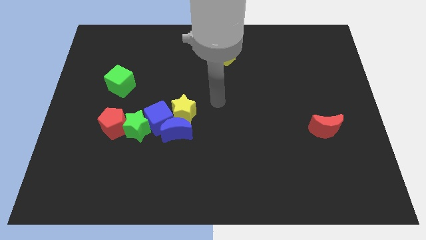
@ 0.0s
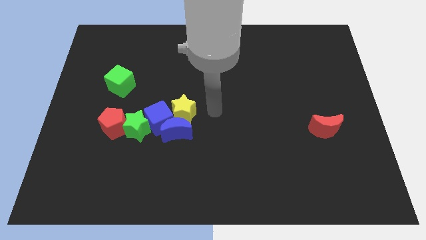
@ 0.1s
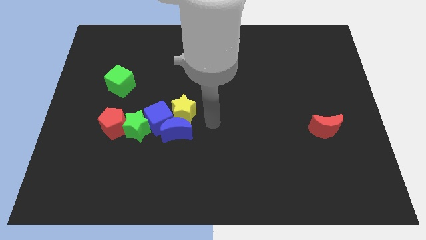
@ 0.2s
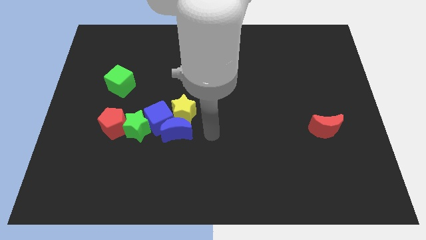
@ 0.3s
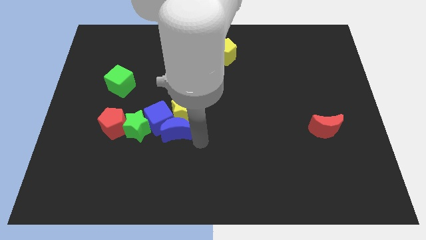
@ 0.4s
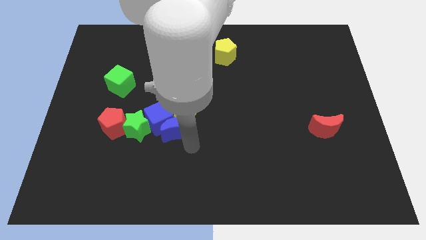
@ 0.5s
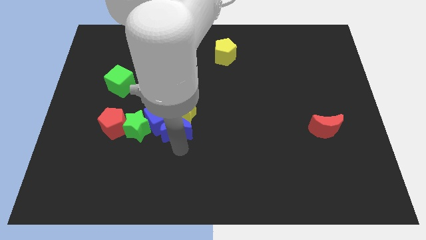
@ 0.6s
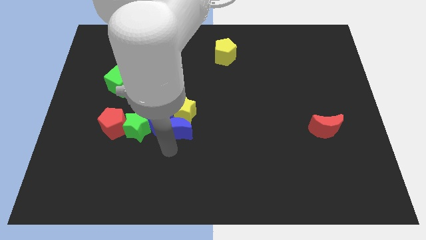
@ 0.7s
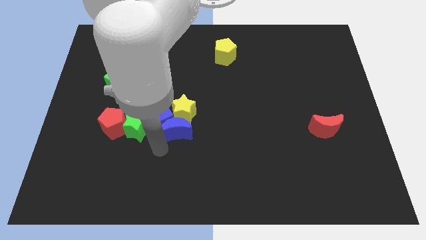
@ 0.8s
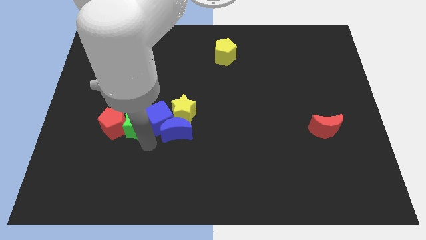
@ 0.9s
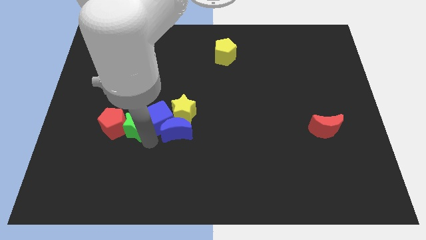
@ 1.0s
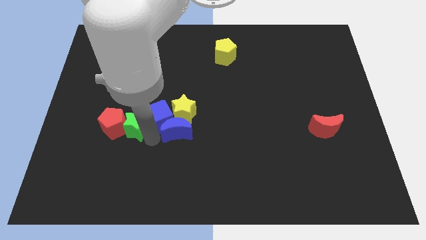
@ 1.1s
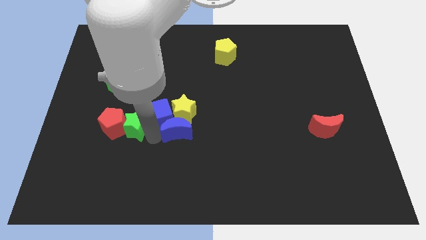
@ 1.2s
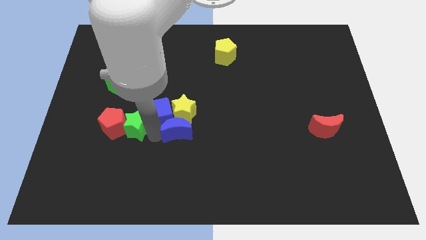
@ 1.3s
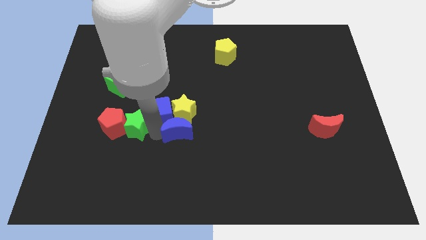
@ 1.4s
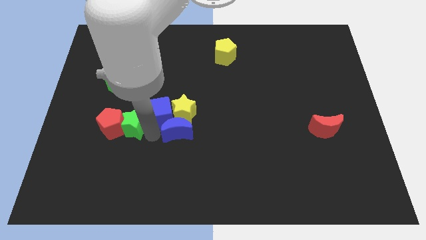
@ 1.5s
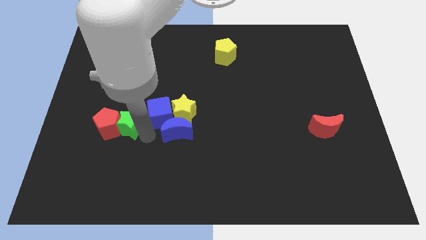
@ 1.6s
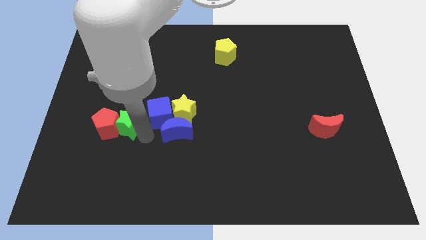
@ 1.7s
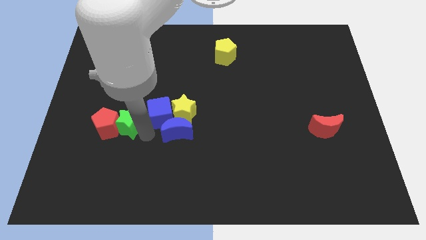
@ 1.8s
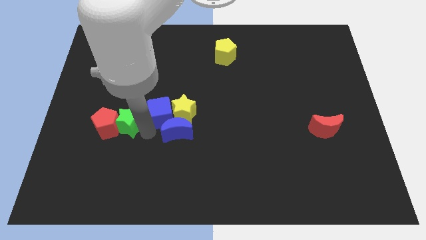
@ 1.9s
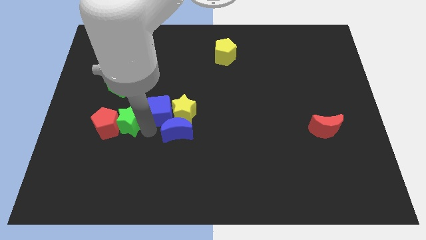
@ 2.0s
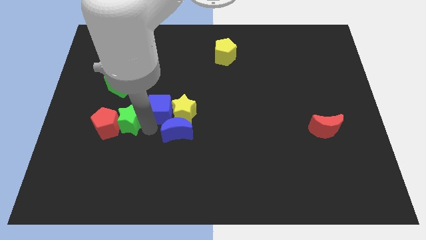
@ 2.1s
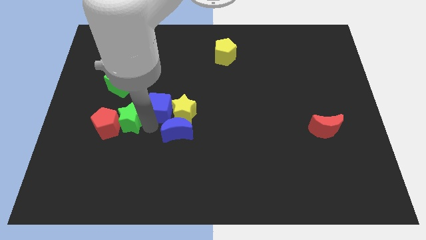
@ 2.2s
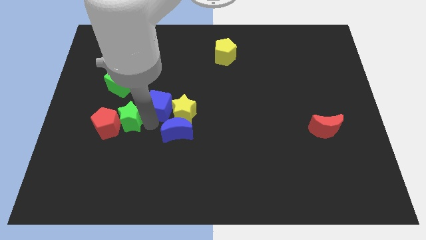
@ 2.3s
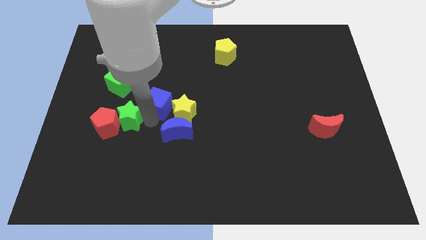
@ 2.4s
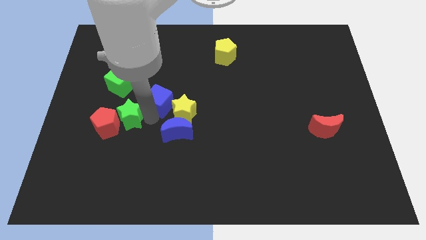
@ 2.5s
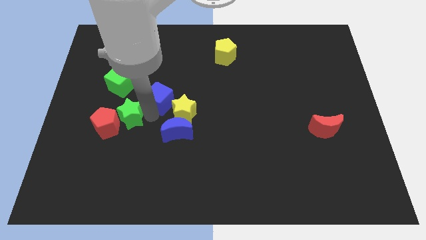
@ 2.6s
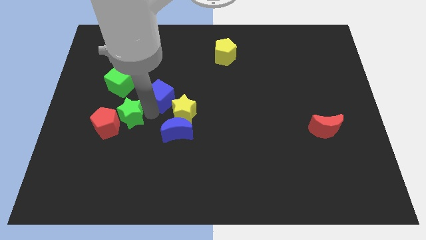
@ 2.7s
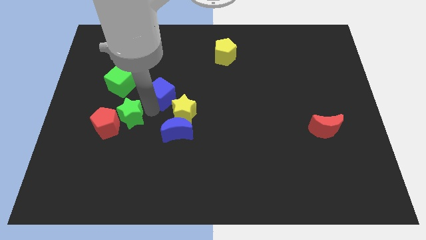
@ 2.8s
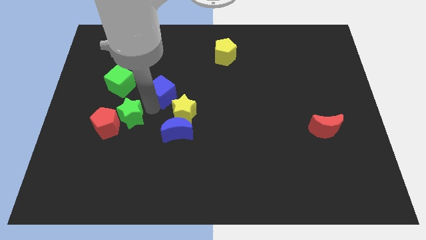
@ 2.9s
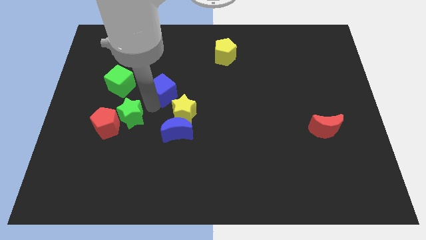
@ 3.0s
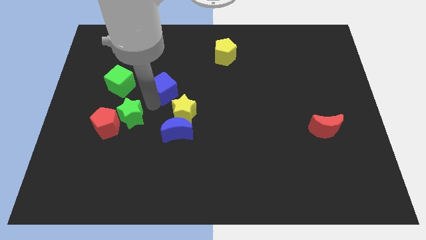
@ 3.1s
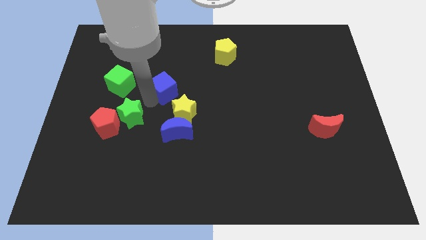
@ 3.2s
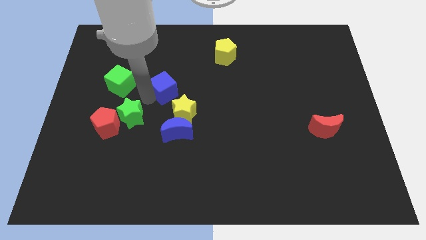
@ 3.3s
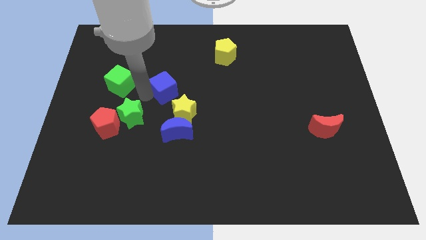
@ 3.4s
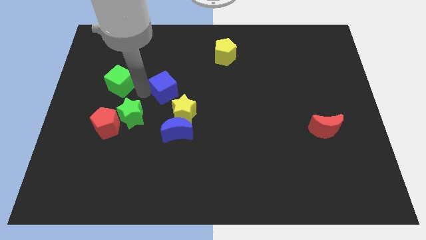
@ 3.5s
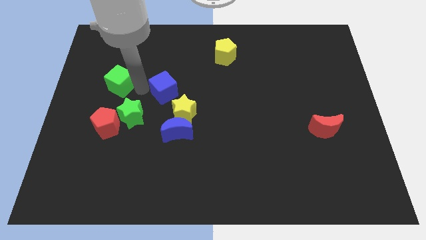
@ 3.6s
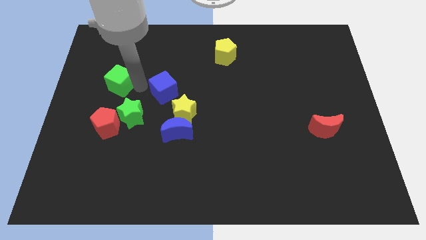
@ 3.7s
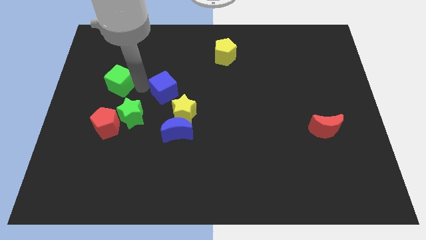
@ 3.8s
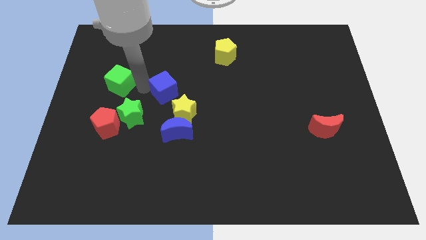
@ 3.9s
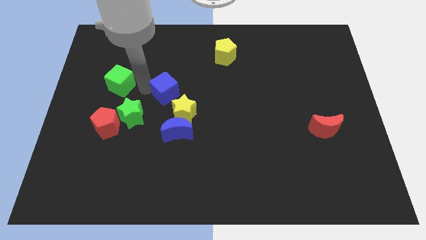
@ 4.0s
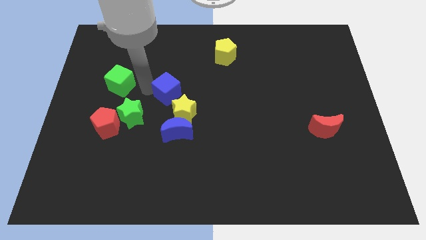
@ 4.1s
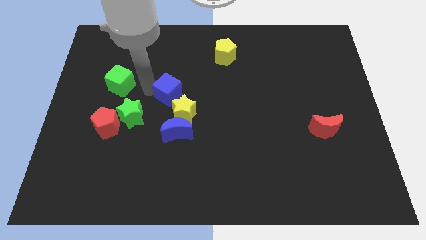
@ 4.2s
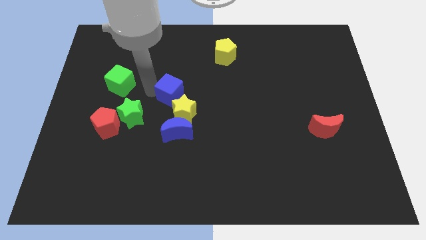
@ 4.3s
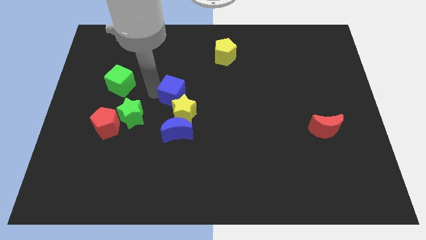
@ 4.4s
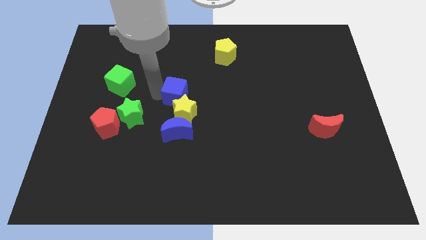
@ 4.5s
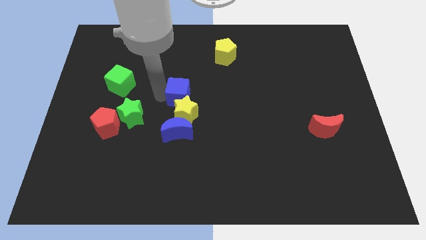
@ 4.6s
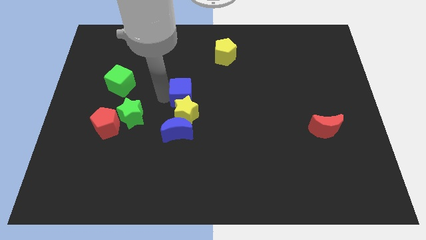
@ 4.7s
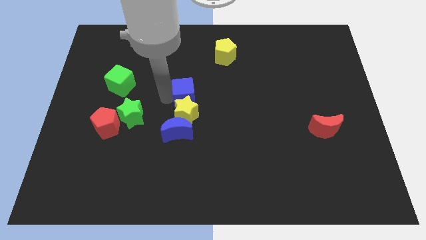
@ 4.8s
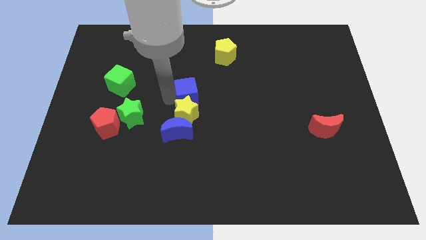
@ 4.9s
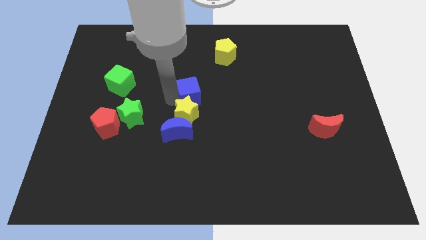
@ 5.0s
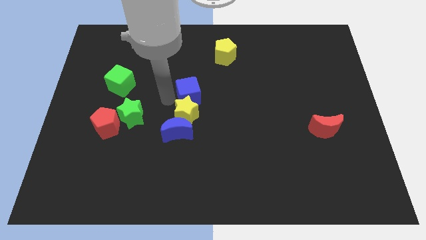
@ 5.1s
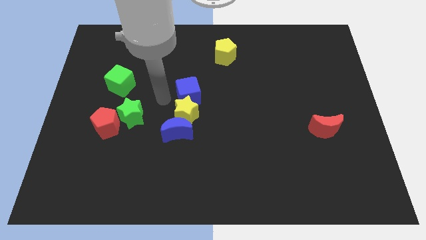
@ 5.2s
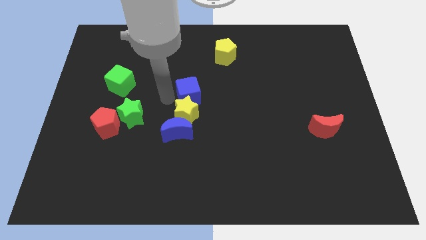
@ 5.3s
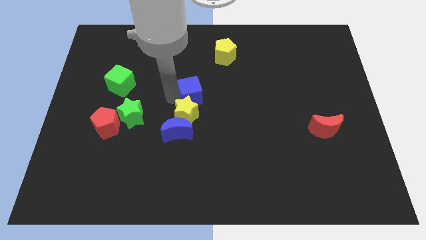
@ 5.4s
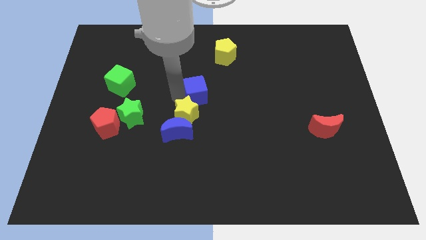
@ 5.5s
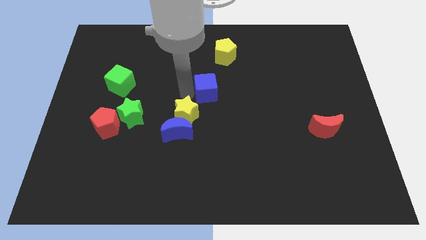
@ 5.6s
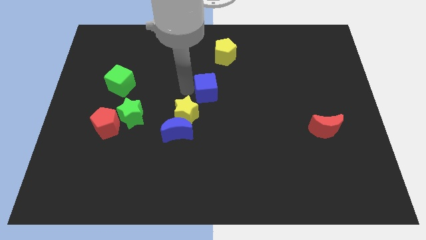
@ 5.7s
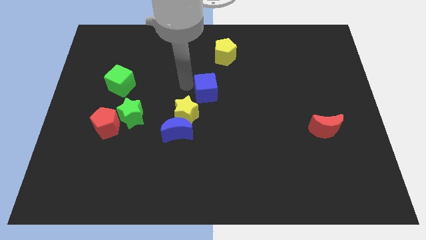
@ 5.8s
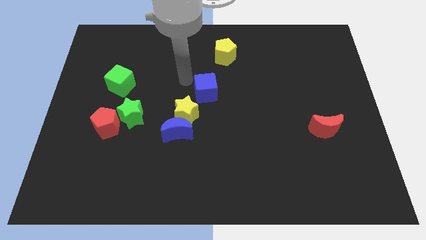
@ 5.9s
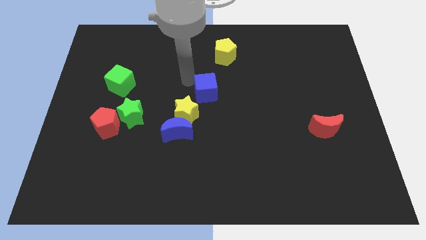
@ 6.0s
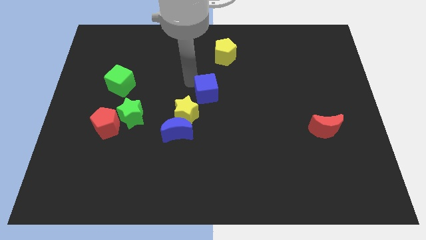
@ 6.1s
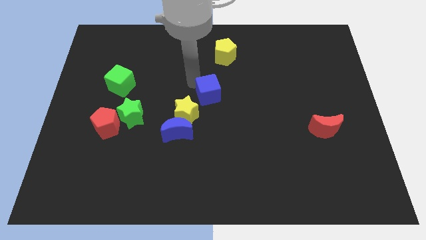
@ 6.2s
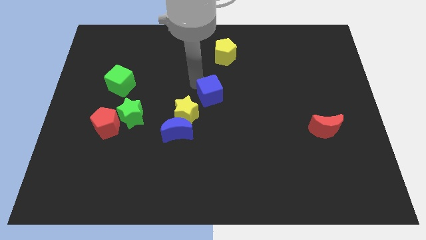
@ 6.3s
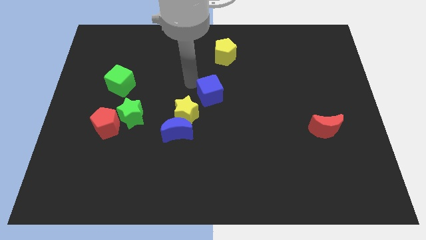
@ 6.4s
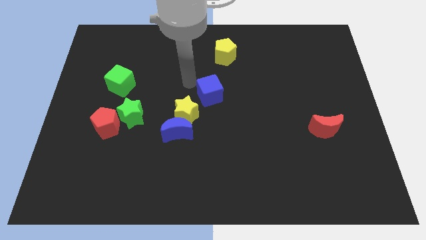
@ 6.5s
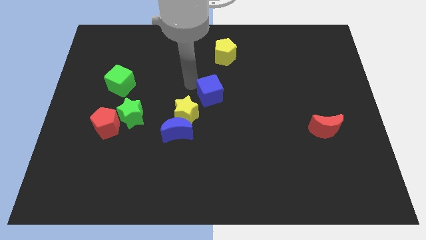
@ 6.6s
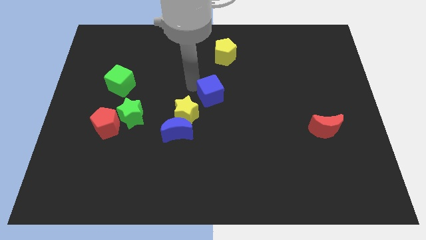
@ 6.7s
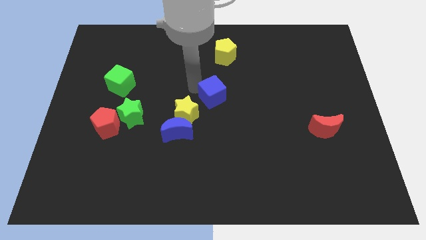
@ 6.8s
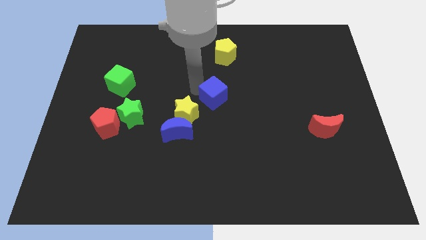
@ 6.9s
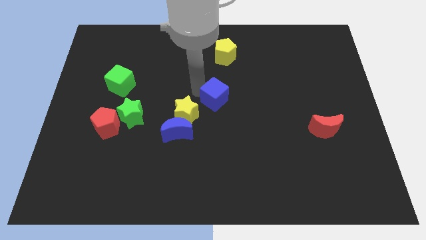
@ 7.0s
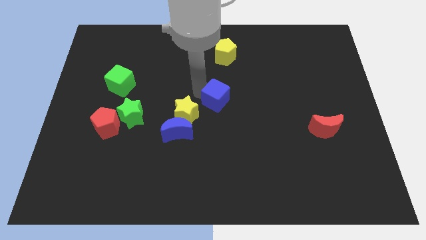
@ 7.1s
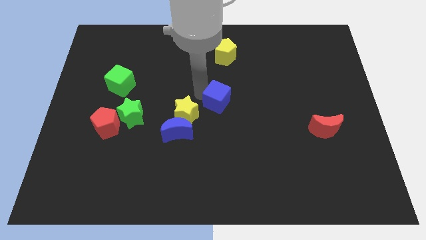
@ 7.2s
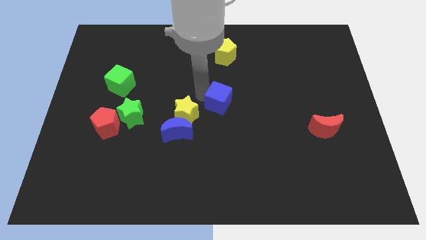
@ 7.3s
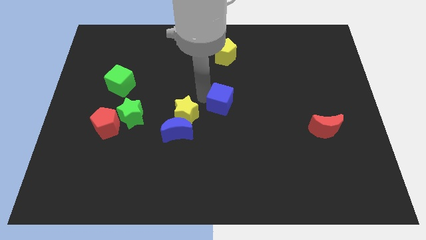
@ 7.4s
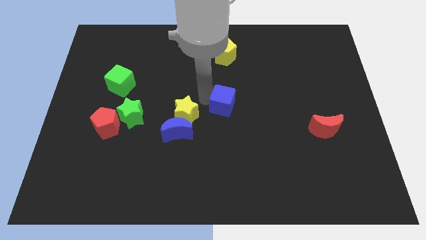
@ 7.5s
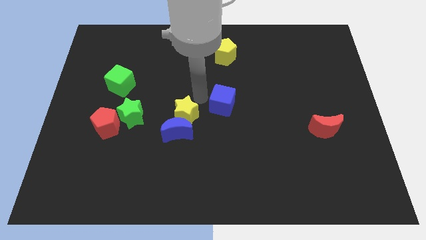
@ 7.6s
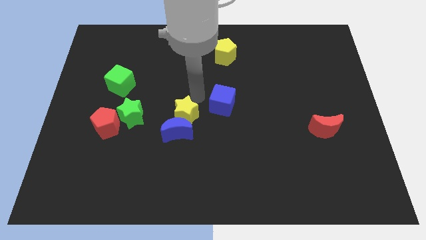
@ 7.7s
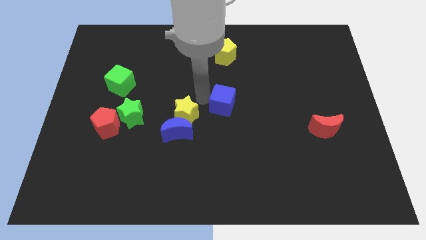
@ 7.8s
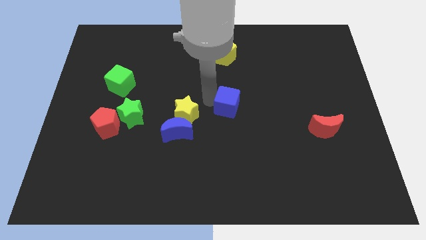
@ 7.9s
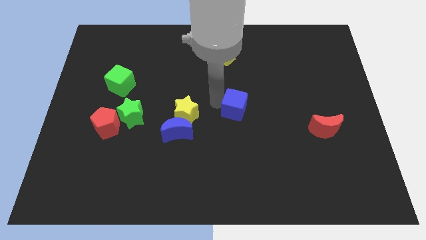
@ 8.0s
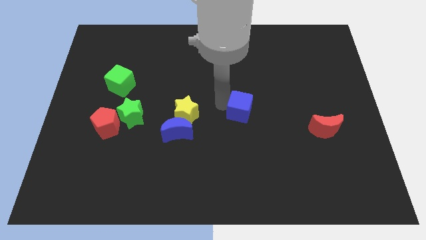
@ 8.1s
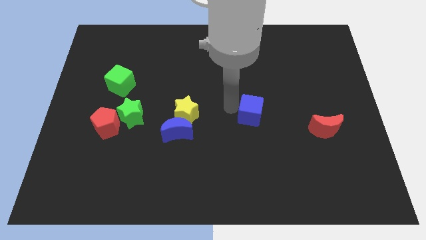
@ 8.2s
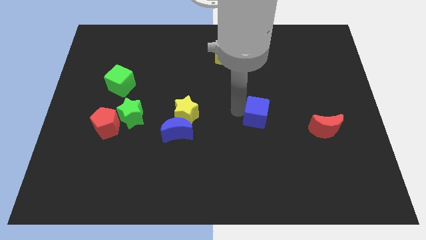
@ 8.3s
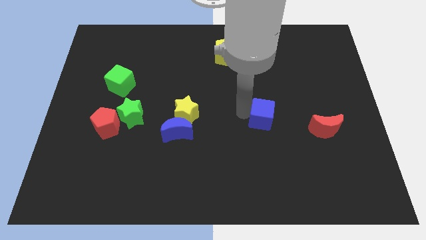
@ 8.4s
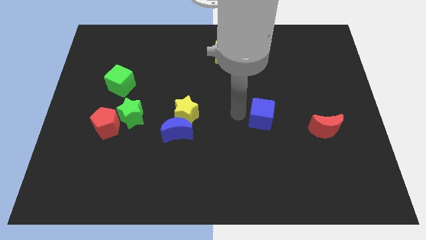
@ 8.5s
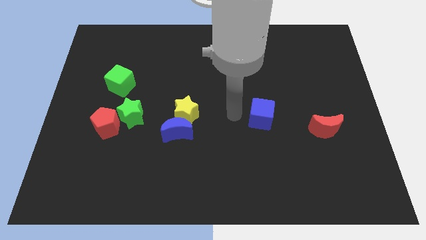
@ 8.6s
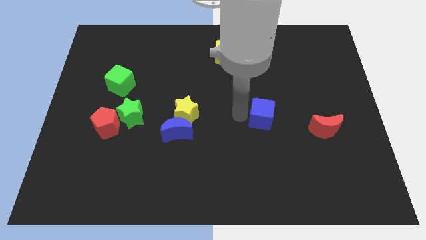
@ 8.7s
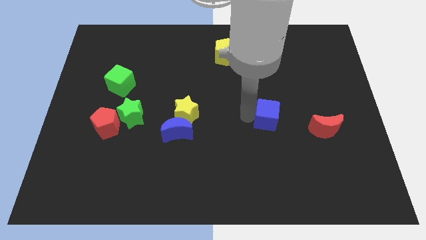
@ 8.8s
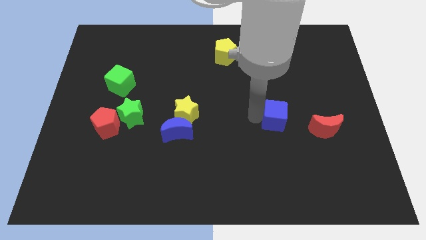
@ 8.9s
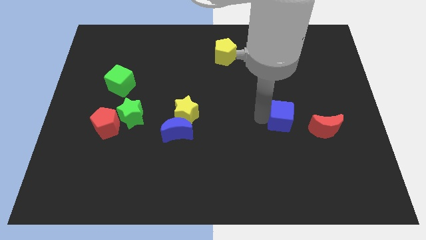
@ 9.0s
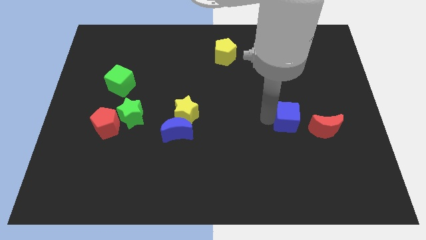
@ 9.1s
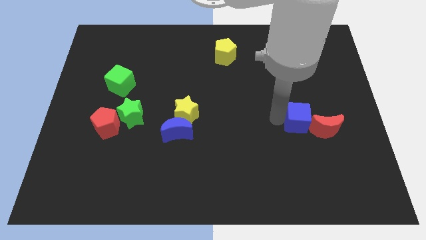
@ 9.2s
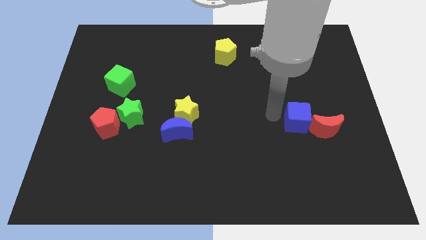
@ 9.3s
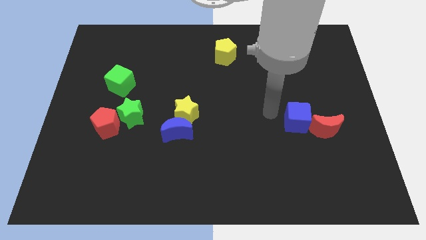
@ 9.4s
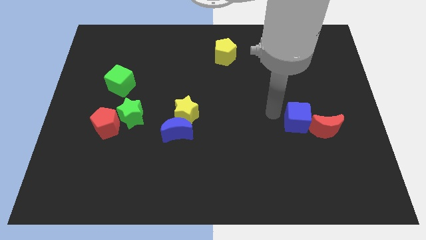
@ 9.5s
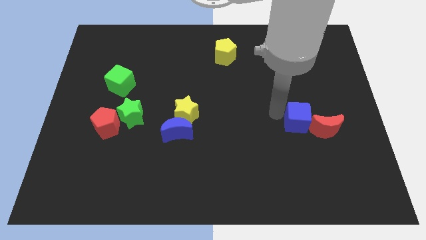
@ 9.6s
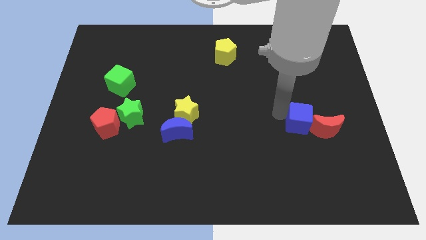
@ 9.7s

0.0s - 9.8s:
put the blue cube close to the red moon
